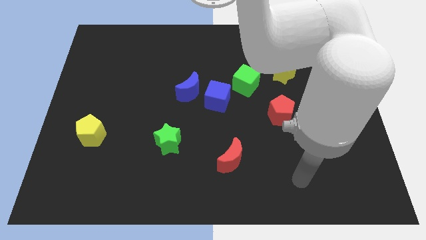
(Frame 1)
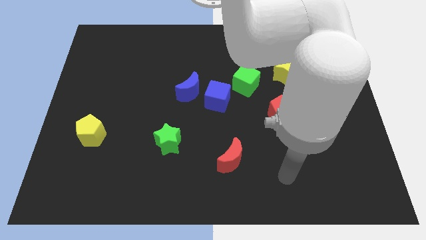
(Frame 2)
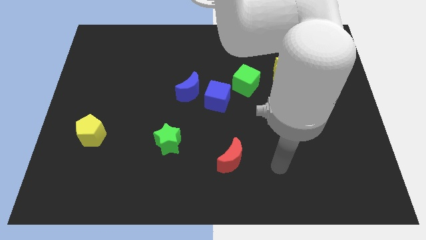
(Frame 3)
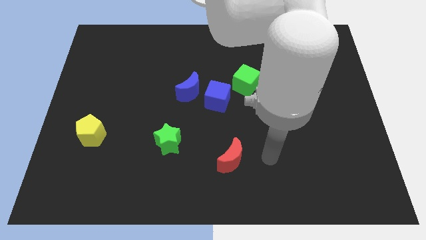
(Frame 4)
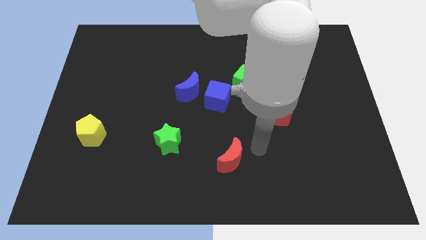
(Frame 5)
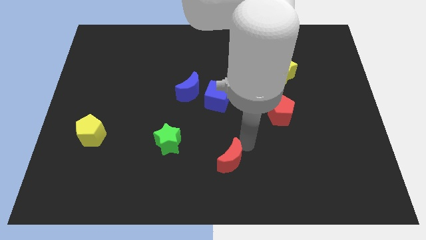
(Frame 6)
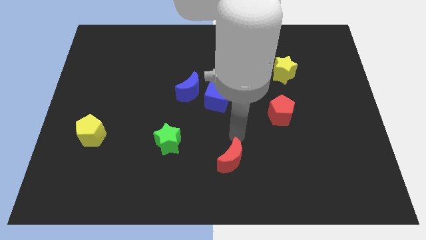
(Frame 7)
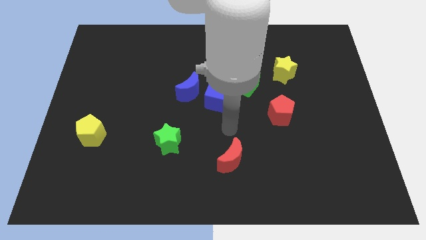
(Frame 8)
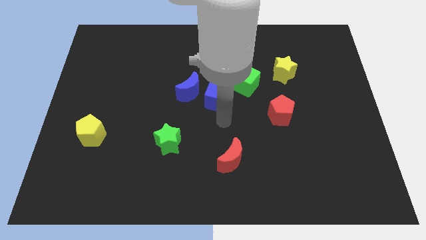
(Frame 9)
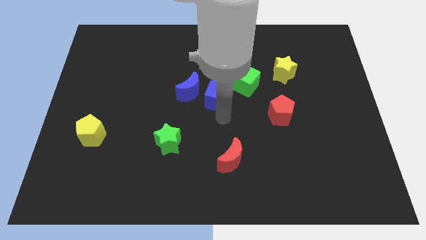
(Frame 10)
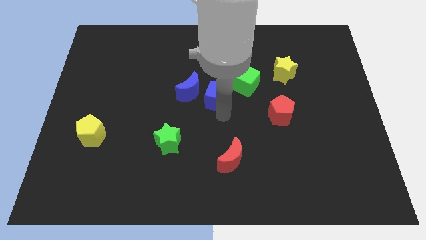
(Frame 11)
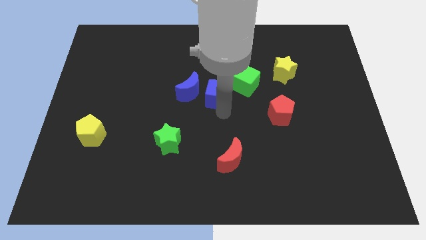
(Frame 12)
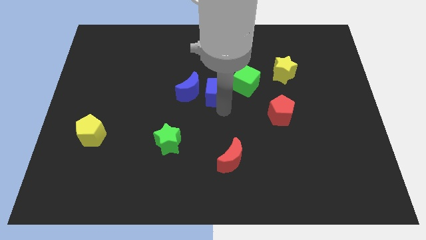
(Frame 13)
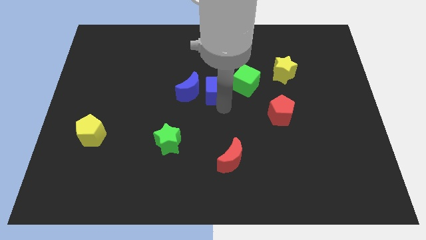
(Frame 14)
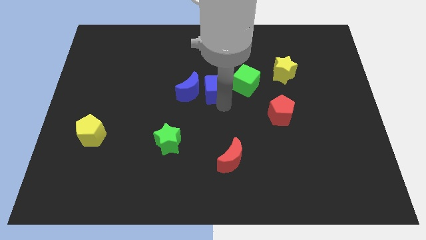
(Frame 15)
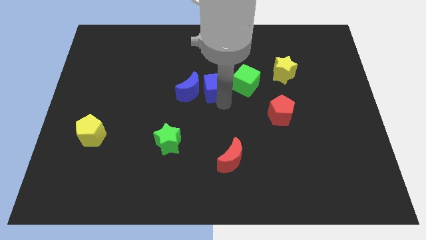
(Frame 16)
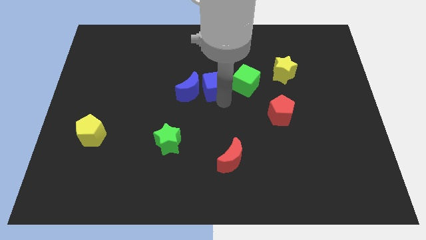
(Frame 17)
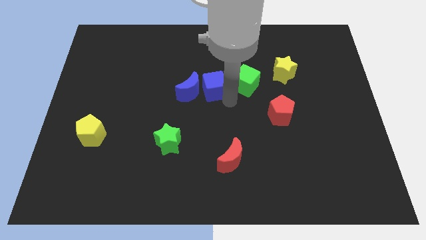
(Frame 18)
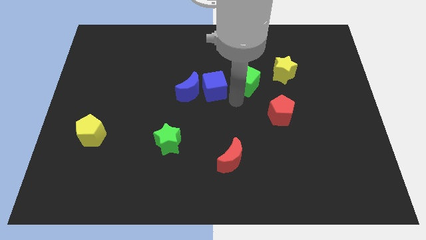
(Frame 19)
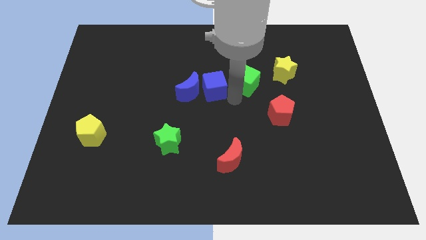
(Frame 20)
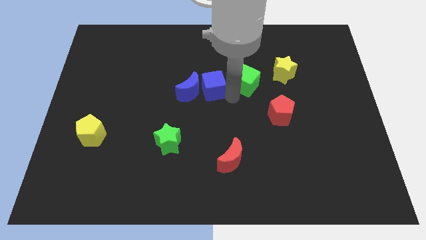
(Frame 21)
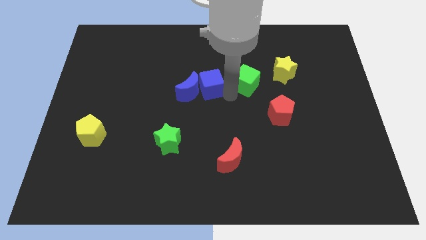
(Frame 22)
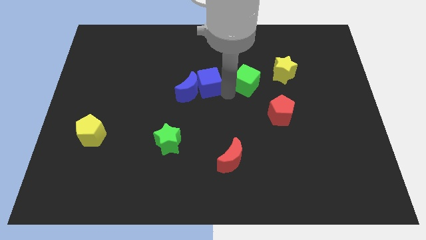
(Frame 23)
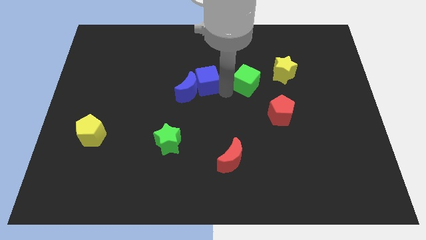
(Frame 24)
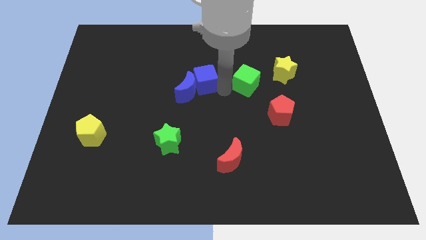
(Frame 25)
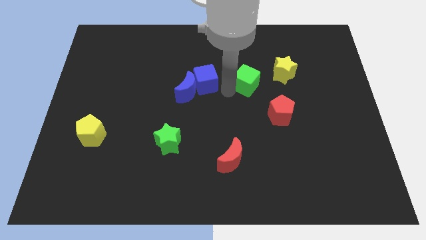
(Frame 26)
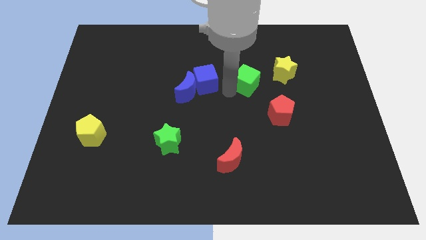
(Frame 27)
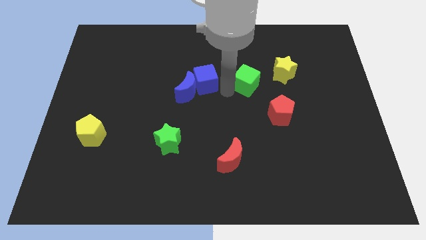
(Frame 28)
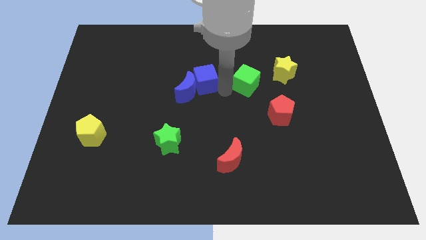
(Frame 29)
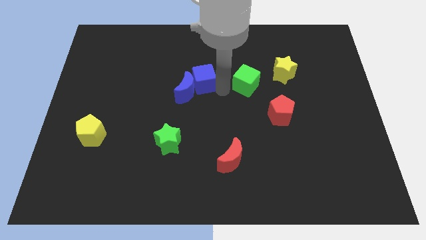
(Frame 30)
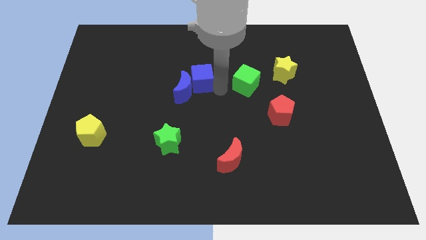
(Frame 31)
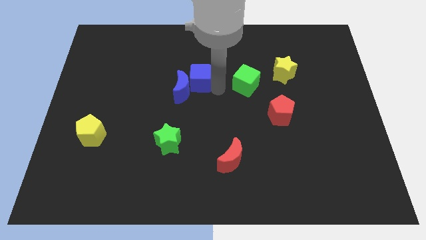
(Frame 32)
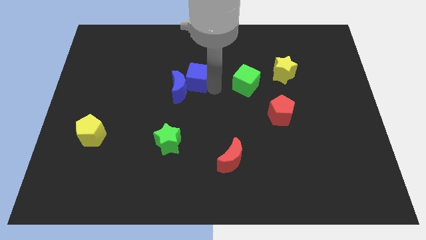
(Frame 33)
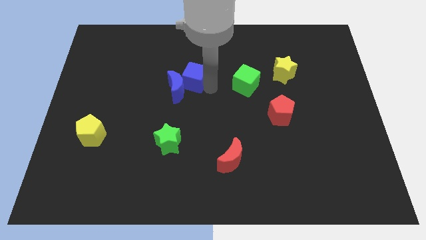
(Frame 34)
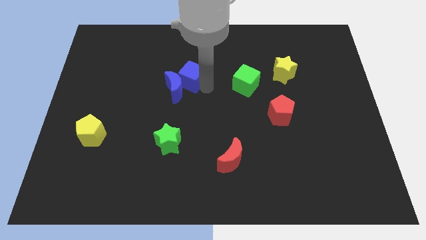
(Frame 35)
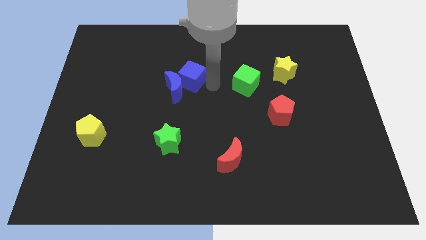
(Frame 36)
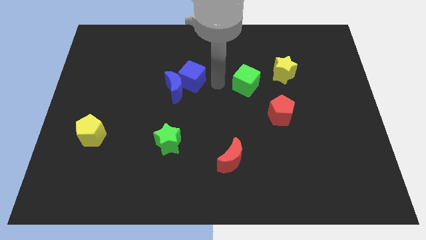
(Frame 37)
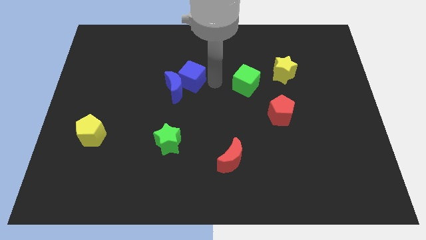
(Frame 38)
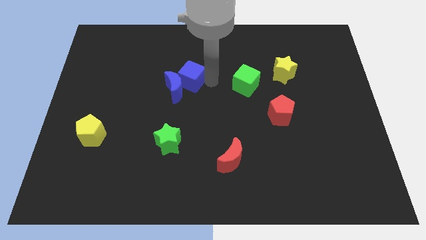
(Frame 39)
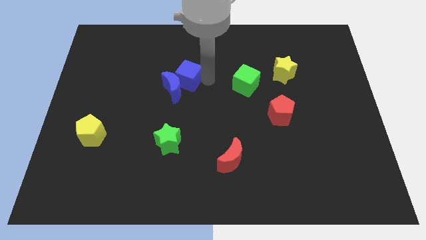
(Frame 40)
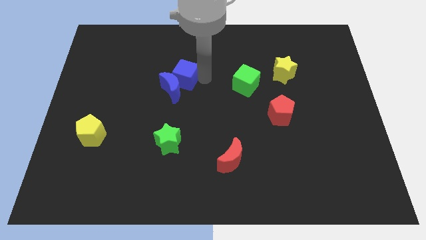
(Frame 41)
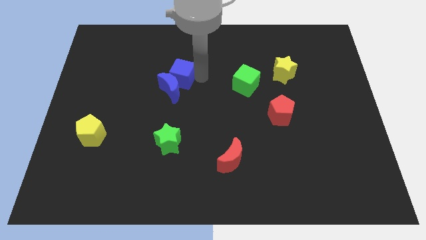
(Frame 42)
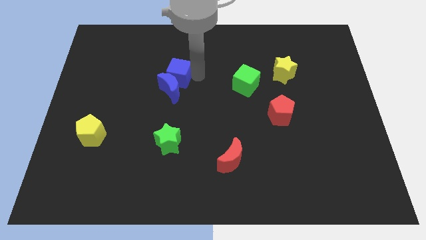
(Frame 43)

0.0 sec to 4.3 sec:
move the blue cube to the top left of the blue moon

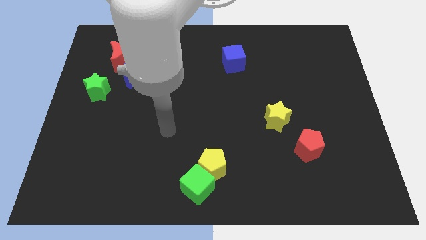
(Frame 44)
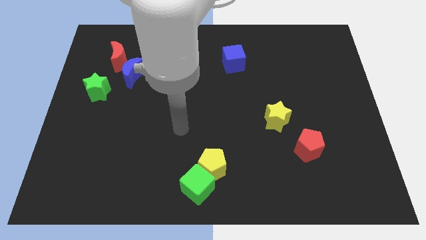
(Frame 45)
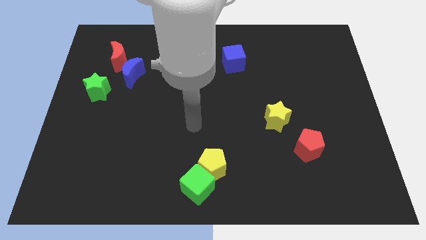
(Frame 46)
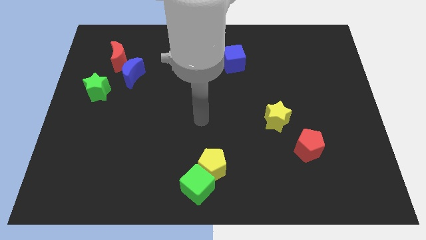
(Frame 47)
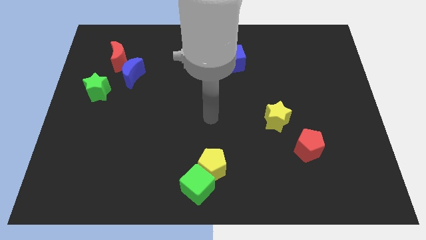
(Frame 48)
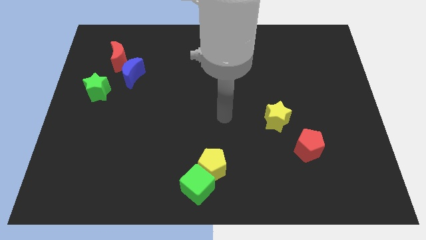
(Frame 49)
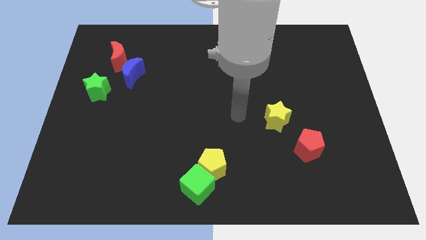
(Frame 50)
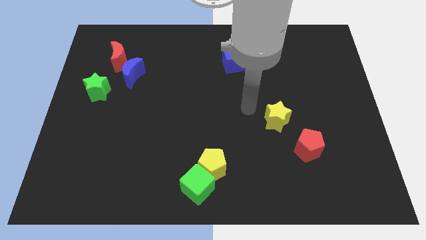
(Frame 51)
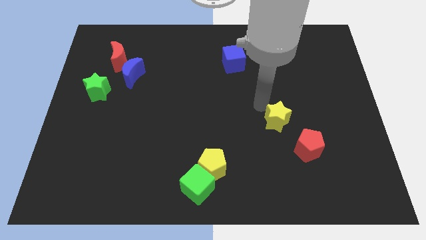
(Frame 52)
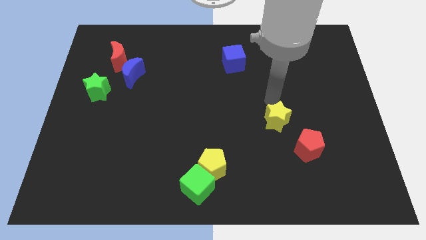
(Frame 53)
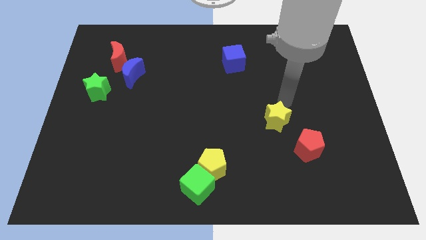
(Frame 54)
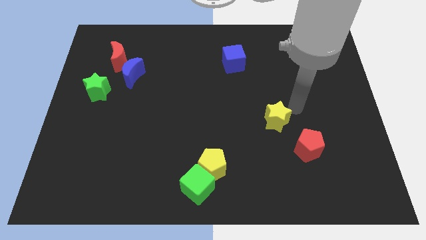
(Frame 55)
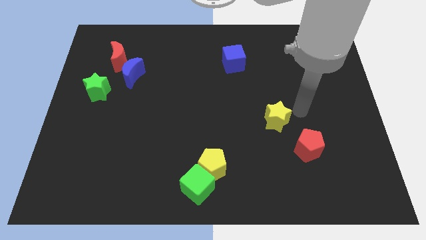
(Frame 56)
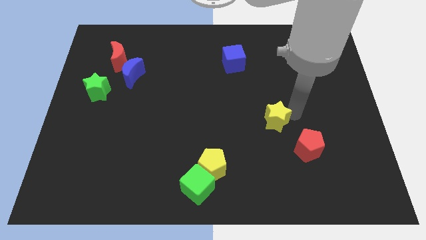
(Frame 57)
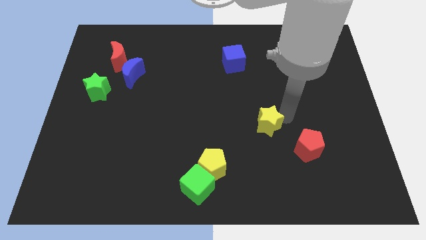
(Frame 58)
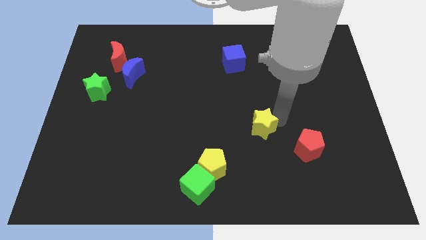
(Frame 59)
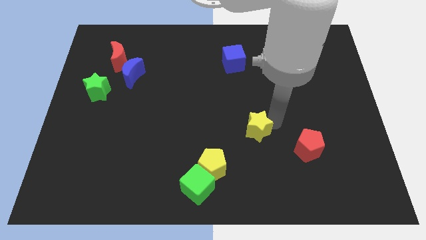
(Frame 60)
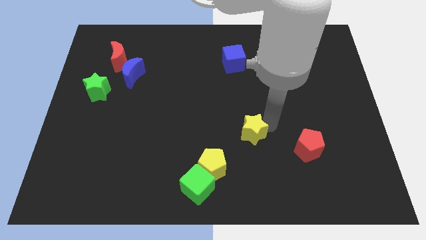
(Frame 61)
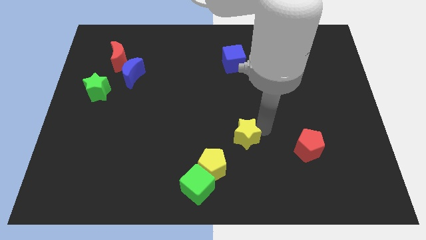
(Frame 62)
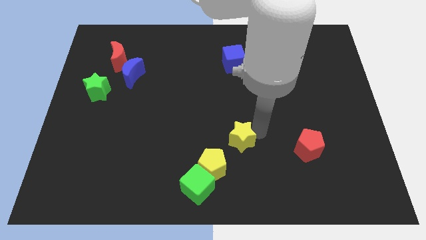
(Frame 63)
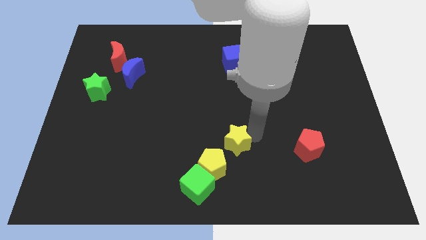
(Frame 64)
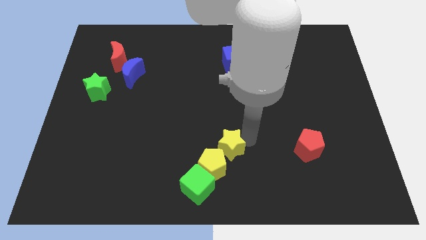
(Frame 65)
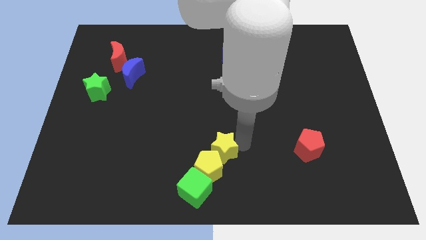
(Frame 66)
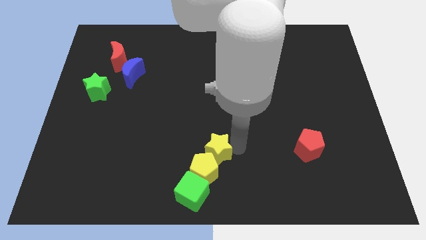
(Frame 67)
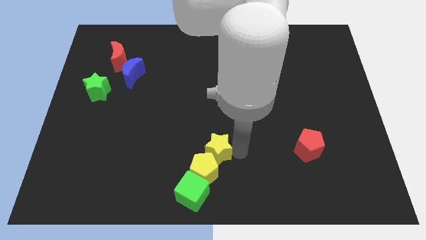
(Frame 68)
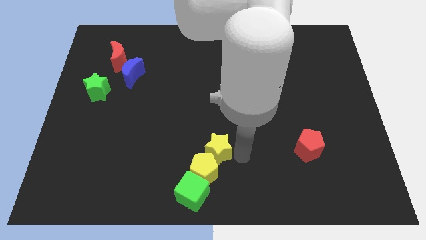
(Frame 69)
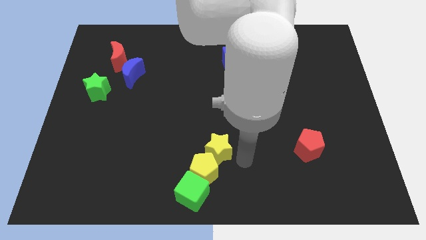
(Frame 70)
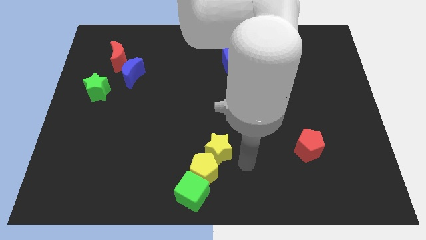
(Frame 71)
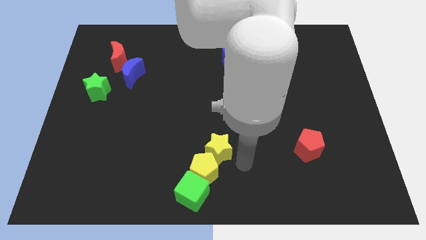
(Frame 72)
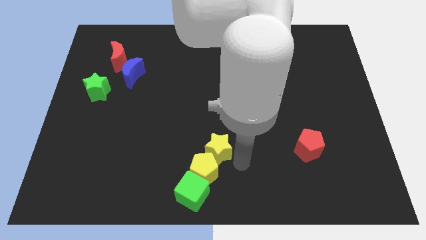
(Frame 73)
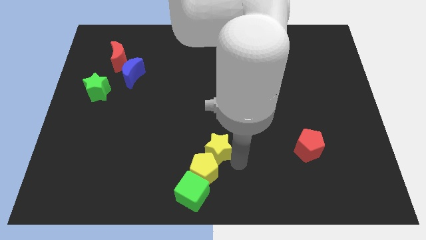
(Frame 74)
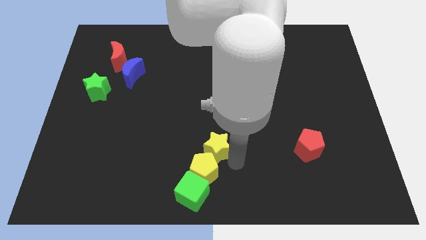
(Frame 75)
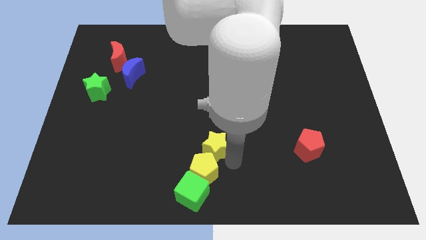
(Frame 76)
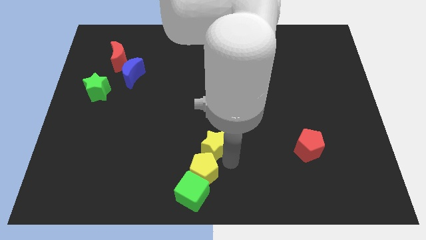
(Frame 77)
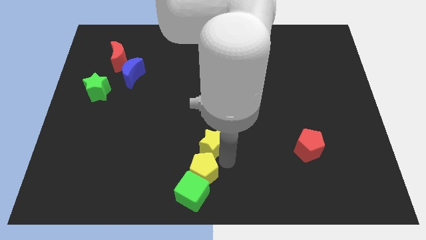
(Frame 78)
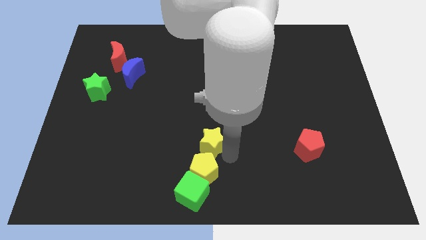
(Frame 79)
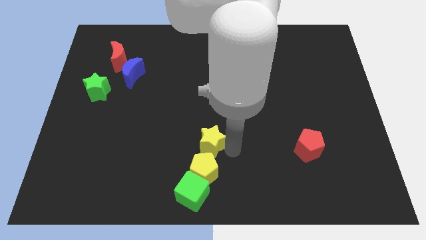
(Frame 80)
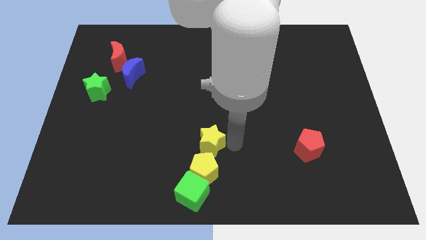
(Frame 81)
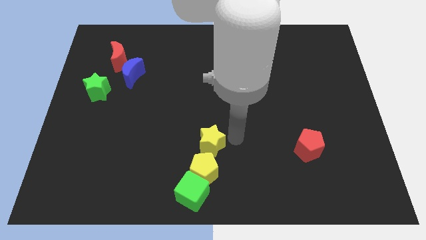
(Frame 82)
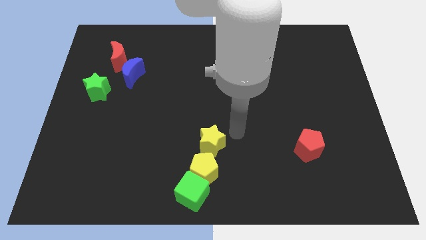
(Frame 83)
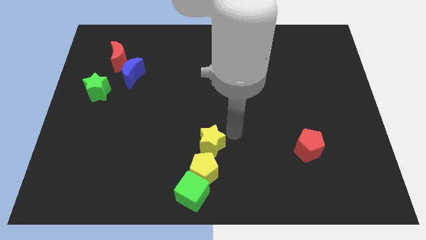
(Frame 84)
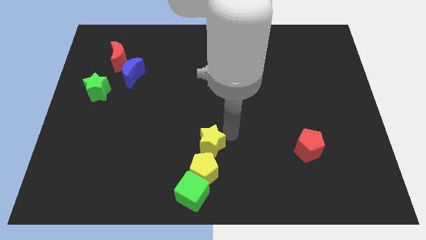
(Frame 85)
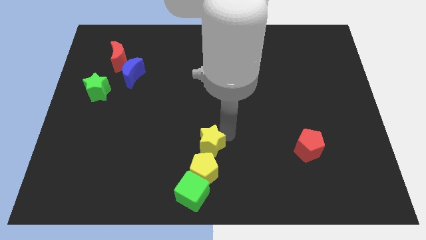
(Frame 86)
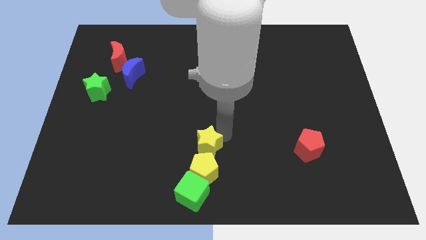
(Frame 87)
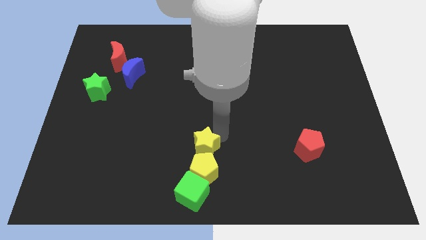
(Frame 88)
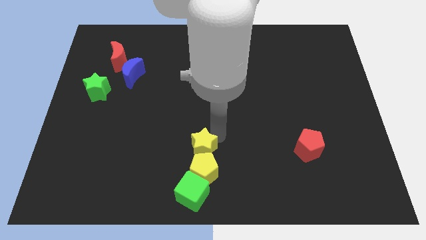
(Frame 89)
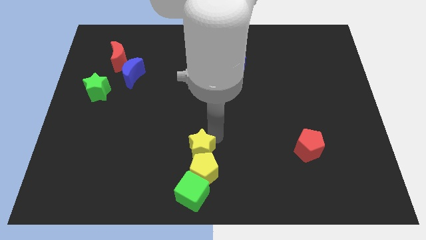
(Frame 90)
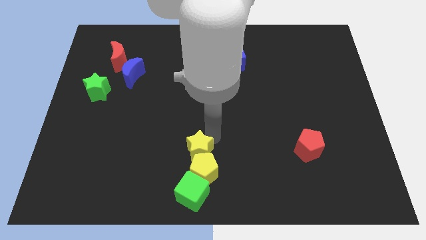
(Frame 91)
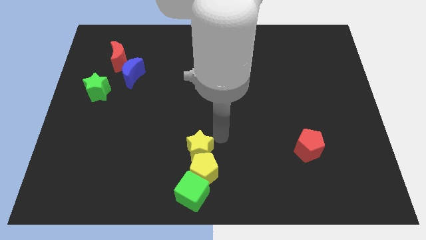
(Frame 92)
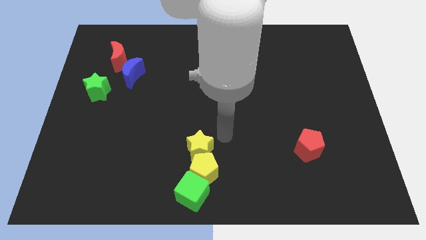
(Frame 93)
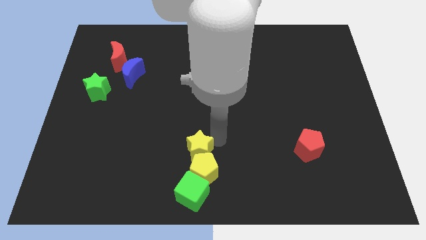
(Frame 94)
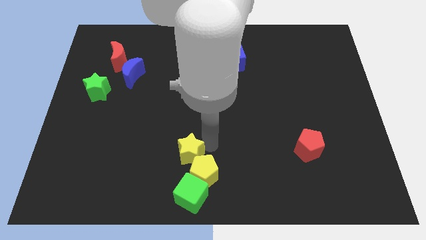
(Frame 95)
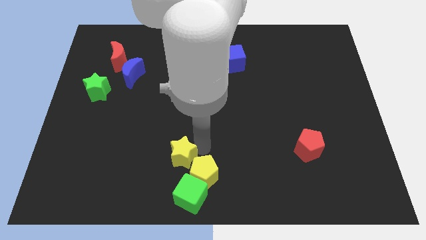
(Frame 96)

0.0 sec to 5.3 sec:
push the yellow star diagonally up and to the left of the green cube
